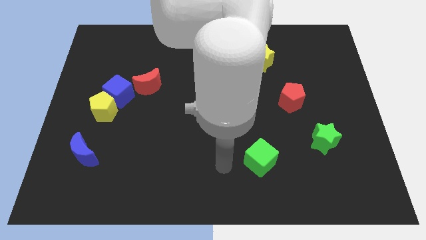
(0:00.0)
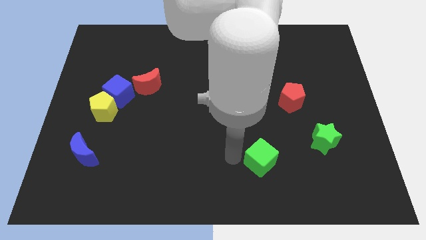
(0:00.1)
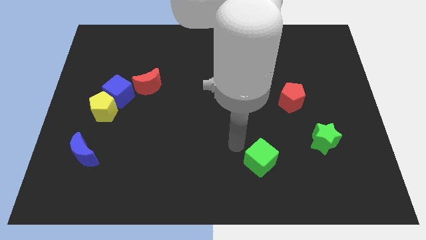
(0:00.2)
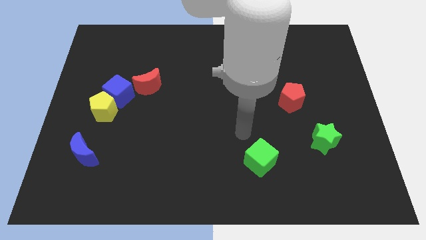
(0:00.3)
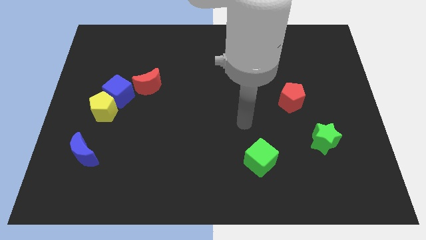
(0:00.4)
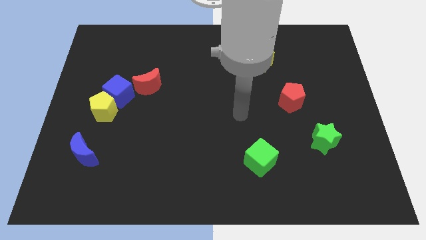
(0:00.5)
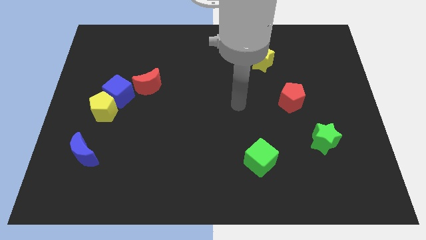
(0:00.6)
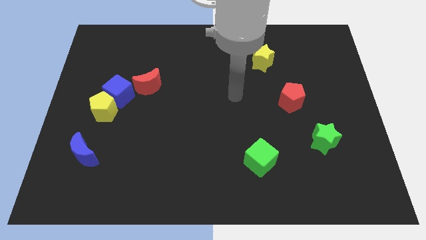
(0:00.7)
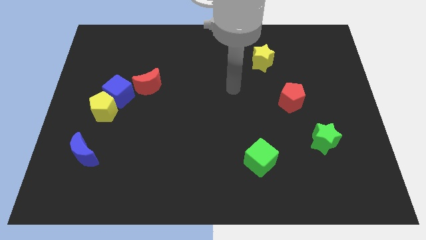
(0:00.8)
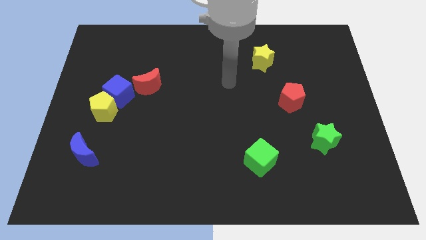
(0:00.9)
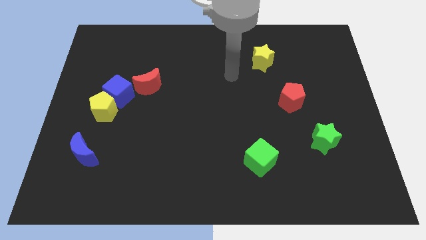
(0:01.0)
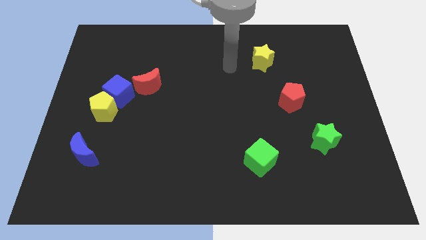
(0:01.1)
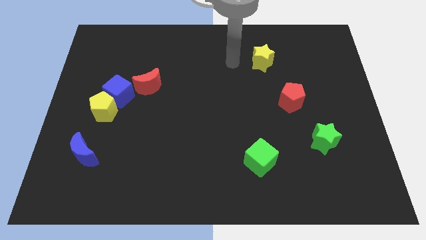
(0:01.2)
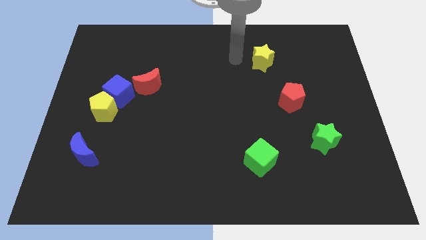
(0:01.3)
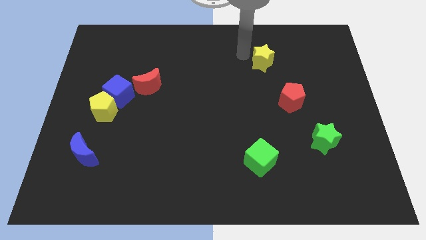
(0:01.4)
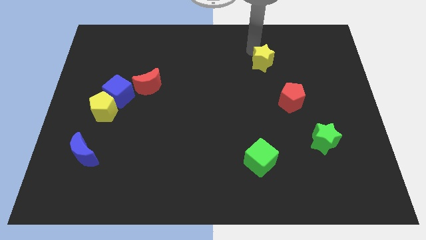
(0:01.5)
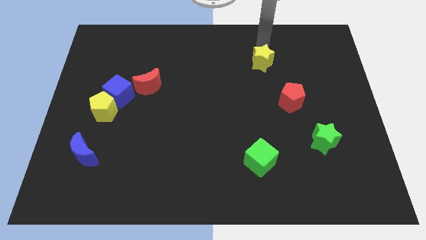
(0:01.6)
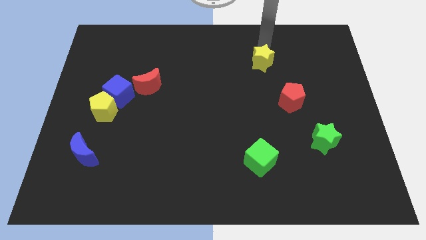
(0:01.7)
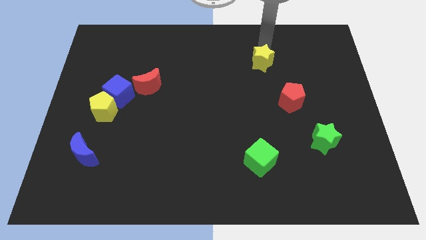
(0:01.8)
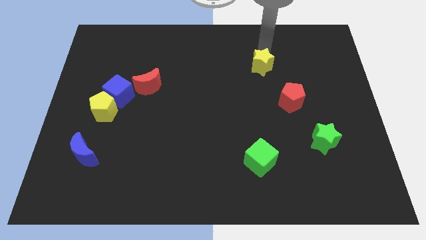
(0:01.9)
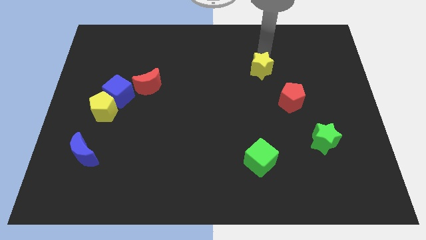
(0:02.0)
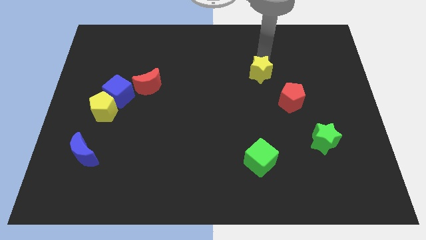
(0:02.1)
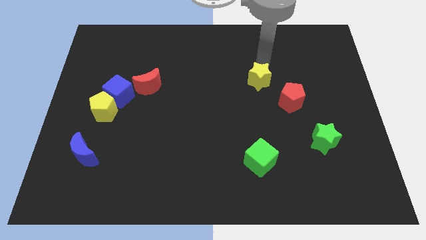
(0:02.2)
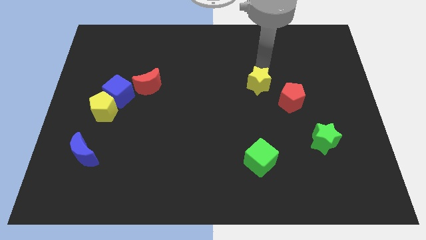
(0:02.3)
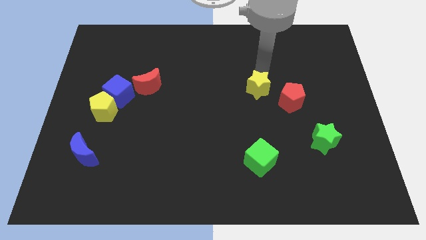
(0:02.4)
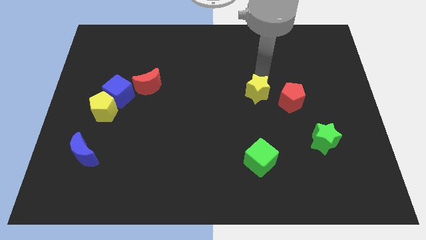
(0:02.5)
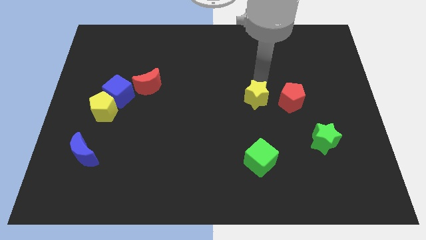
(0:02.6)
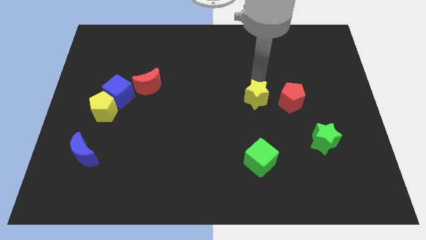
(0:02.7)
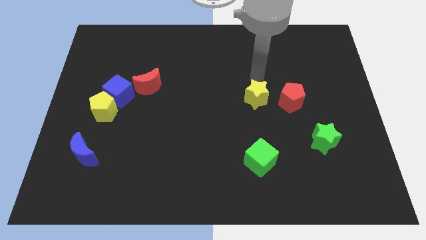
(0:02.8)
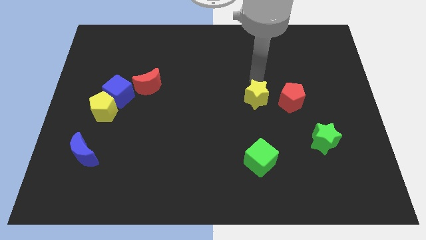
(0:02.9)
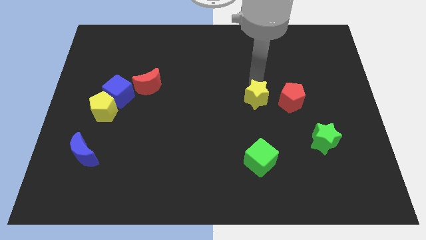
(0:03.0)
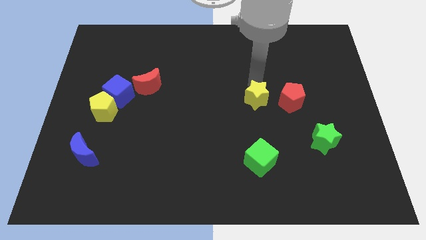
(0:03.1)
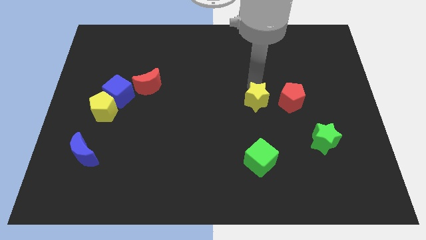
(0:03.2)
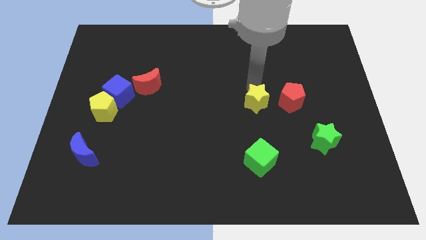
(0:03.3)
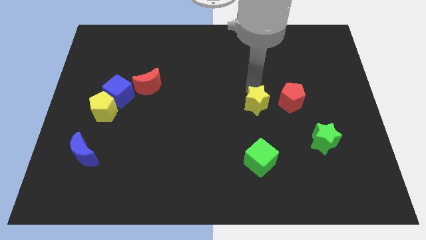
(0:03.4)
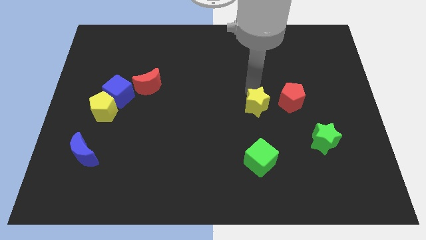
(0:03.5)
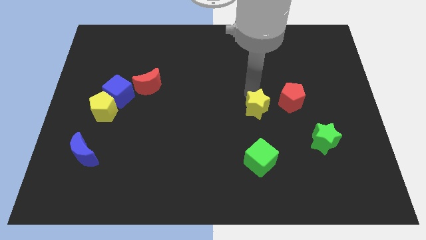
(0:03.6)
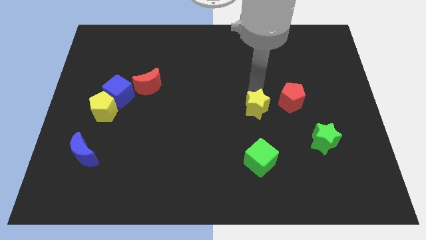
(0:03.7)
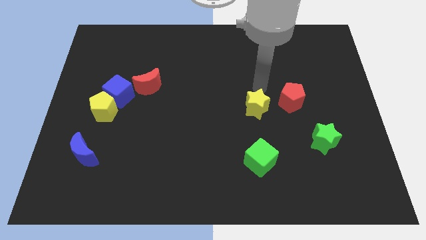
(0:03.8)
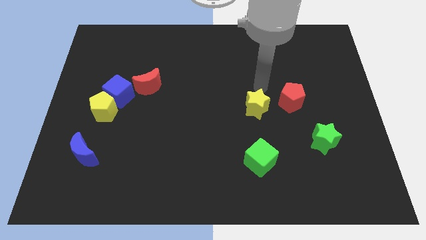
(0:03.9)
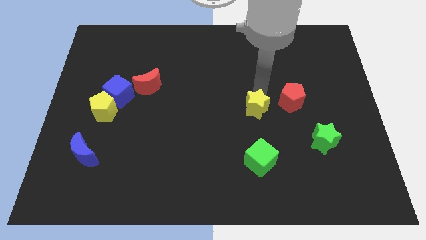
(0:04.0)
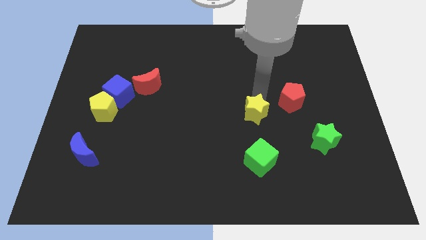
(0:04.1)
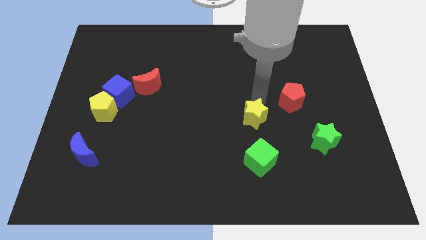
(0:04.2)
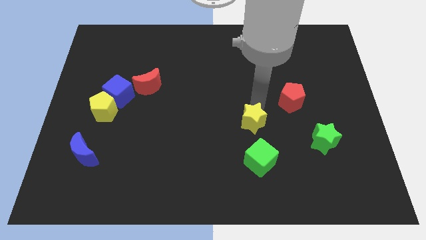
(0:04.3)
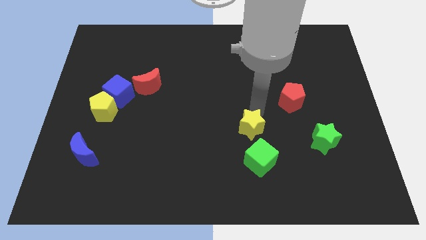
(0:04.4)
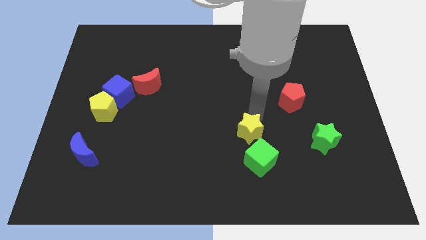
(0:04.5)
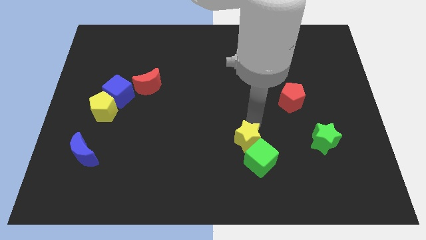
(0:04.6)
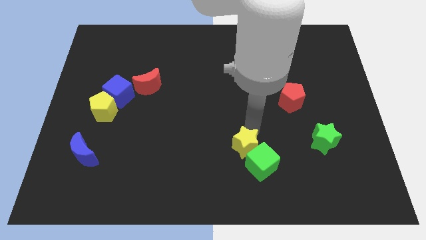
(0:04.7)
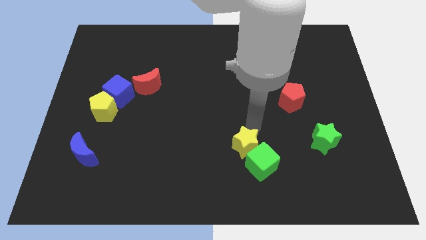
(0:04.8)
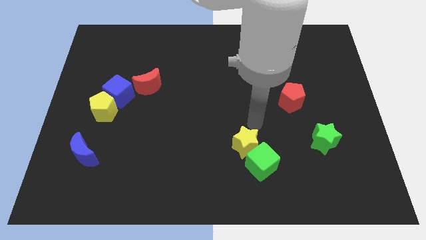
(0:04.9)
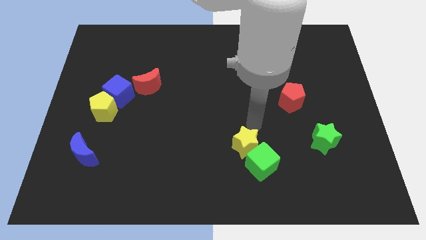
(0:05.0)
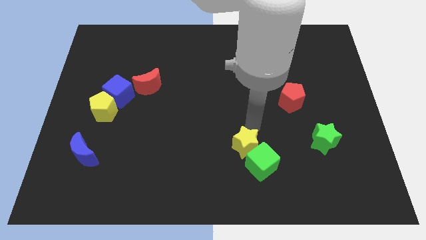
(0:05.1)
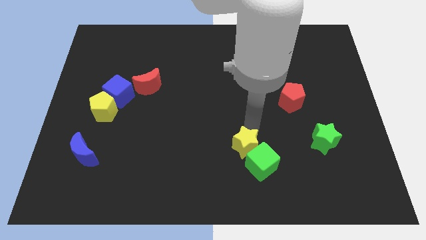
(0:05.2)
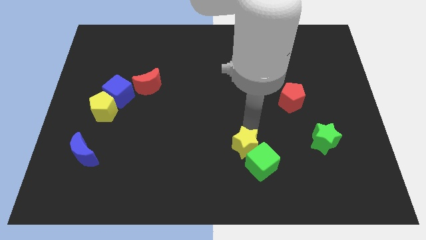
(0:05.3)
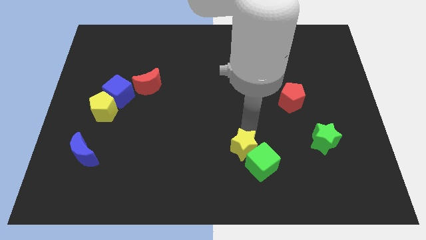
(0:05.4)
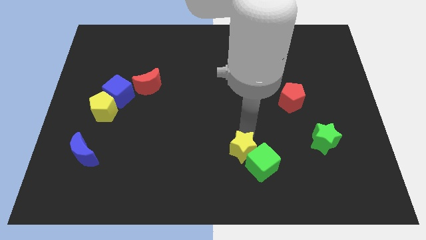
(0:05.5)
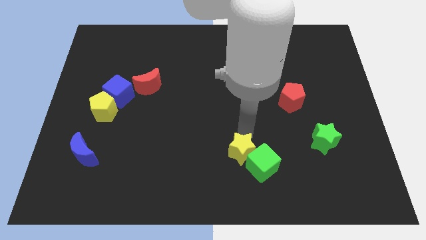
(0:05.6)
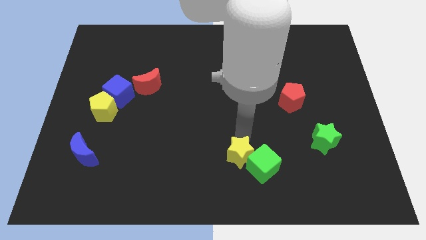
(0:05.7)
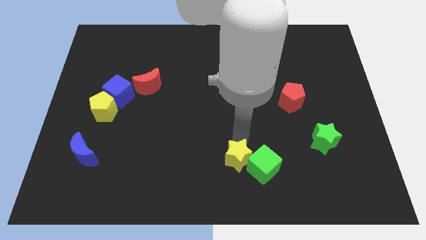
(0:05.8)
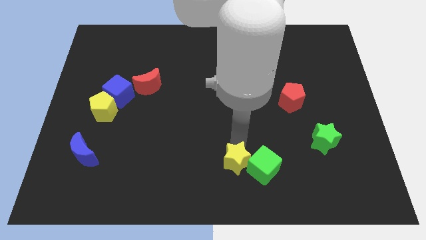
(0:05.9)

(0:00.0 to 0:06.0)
move the yellow star to the bottom left of the green cube
